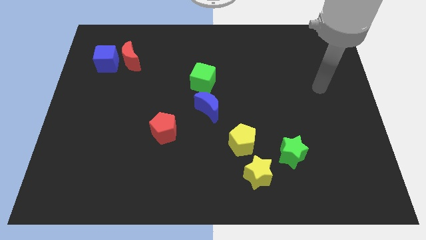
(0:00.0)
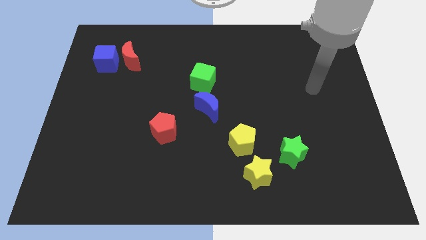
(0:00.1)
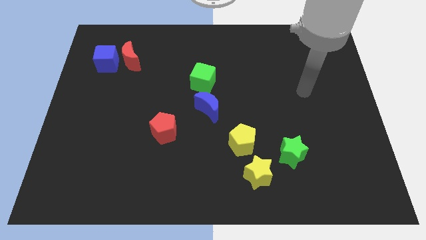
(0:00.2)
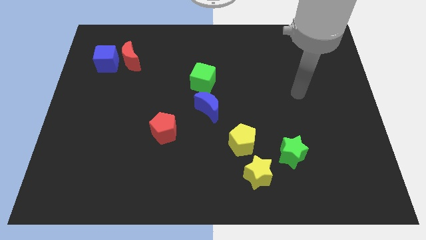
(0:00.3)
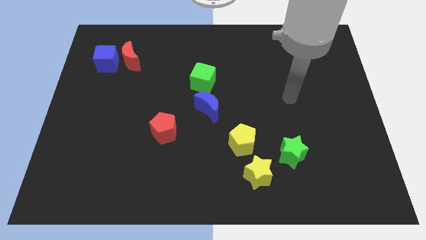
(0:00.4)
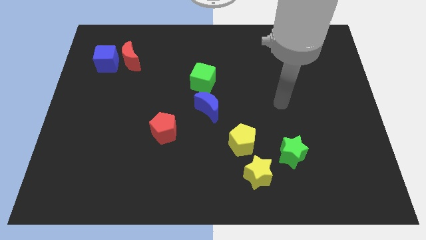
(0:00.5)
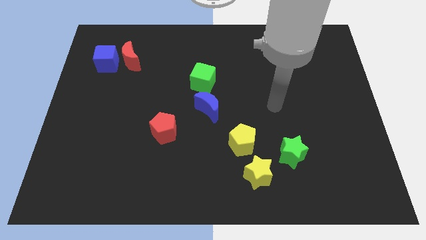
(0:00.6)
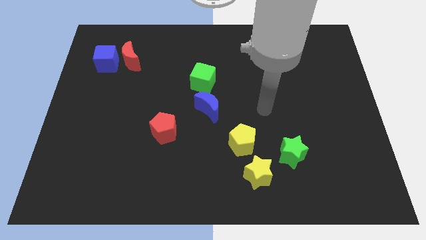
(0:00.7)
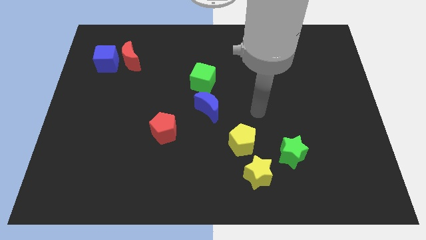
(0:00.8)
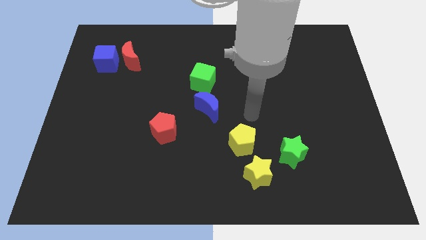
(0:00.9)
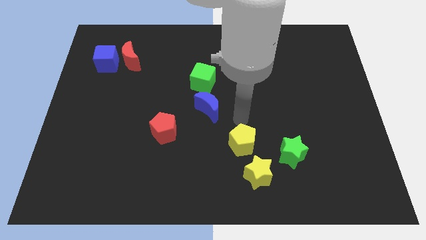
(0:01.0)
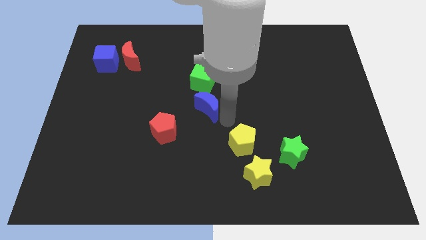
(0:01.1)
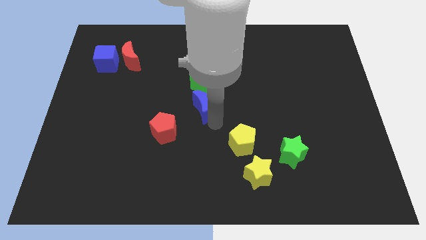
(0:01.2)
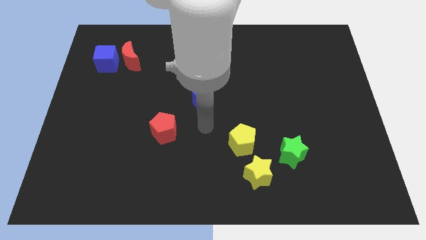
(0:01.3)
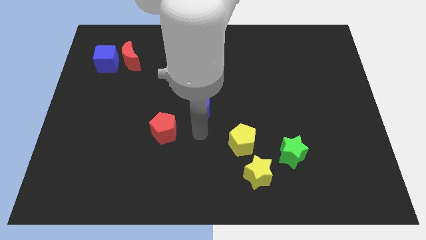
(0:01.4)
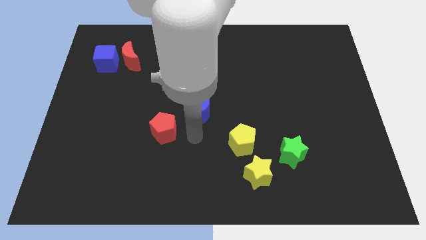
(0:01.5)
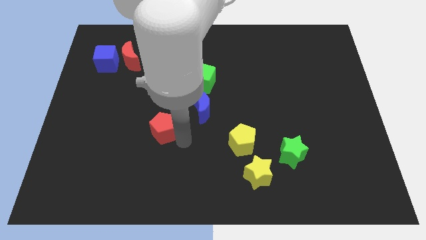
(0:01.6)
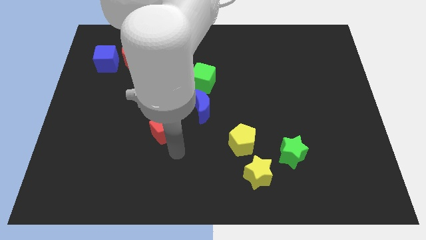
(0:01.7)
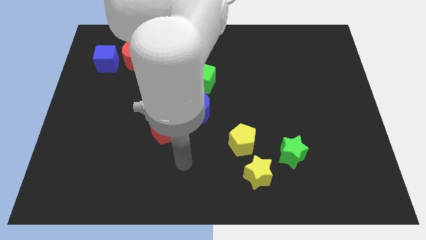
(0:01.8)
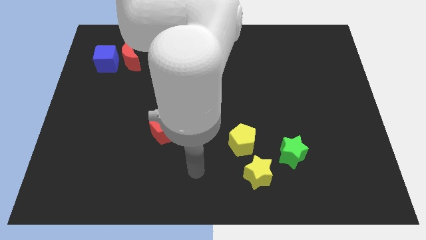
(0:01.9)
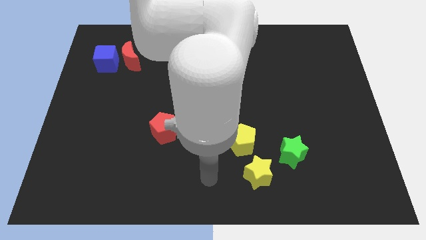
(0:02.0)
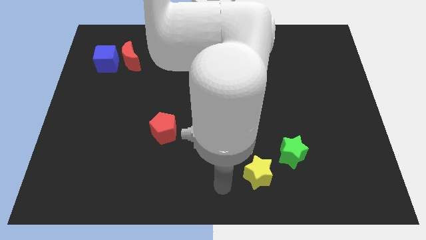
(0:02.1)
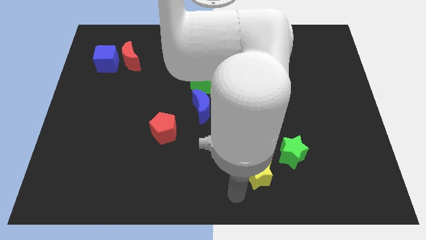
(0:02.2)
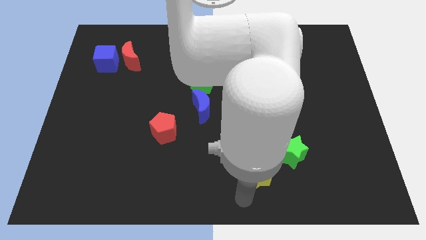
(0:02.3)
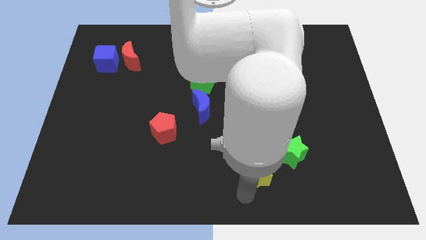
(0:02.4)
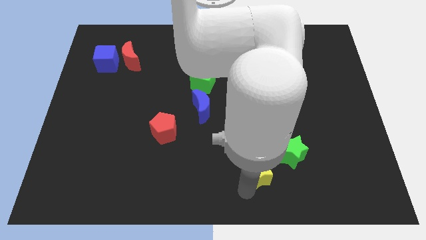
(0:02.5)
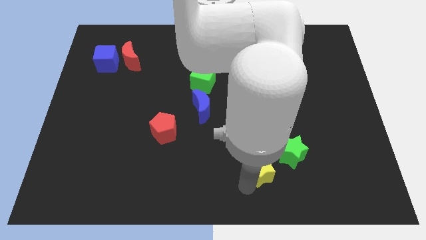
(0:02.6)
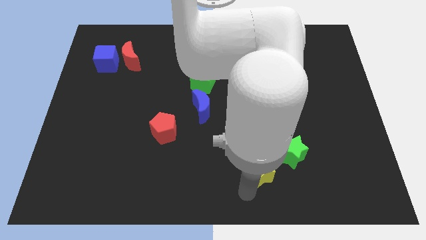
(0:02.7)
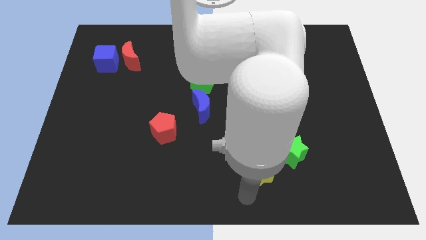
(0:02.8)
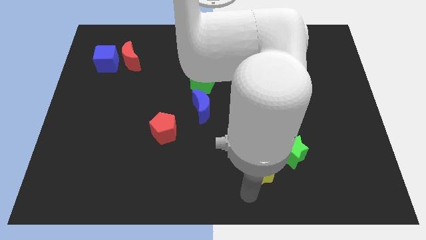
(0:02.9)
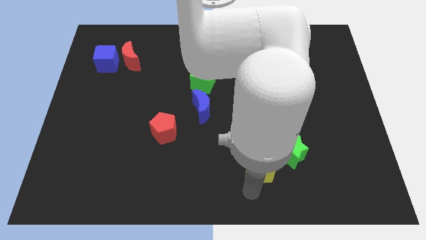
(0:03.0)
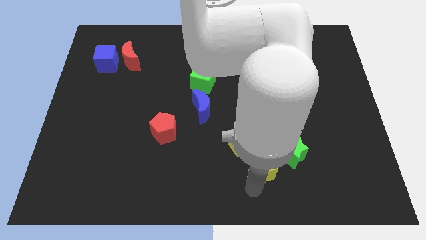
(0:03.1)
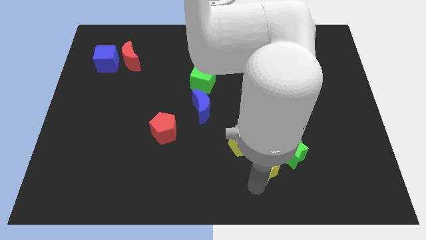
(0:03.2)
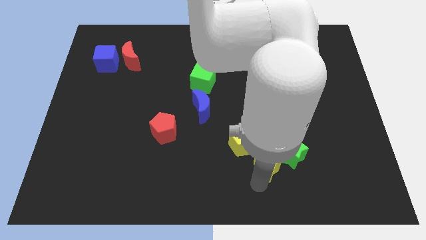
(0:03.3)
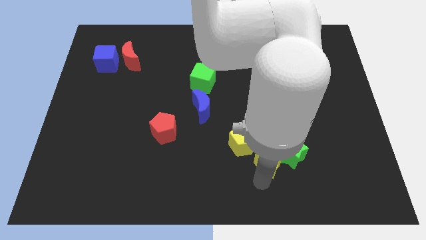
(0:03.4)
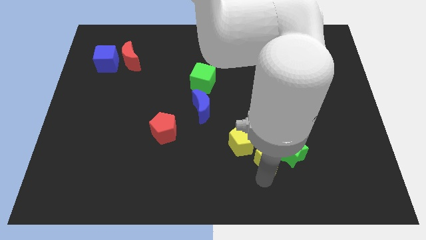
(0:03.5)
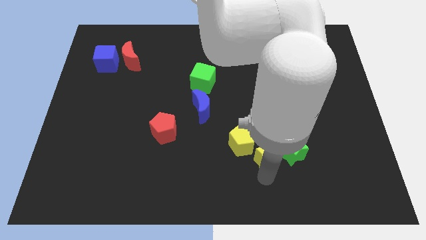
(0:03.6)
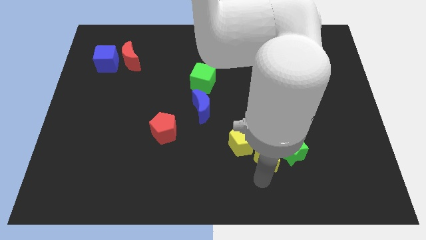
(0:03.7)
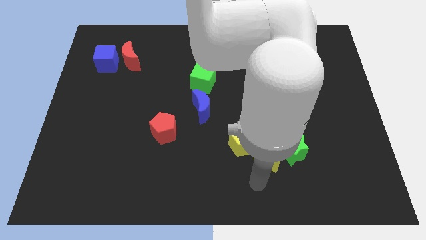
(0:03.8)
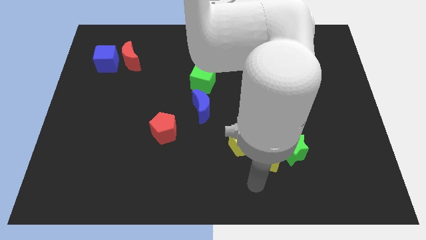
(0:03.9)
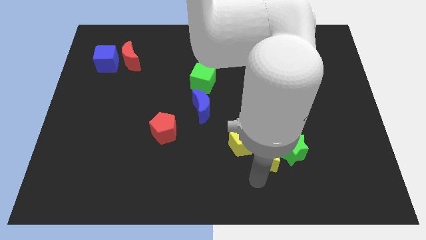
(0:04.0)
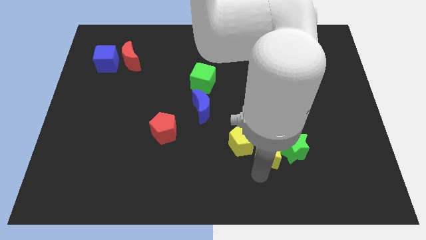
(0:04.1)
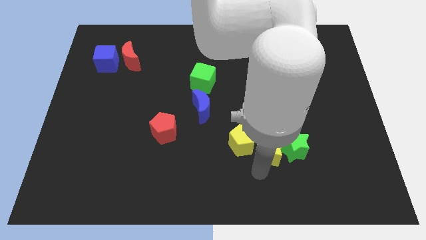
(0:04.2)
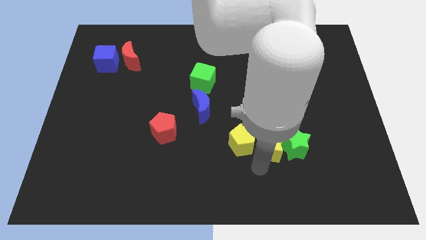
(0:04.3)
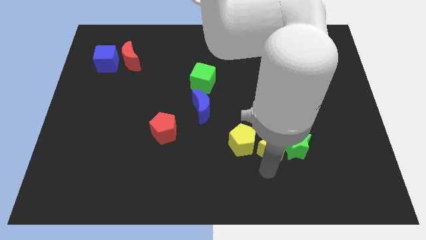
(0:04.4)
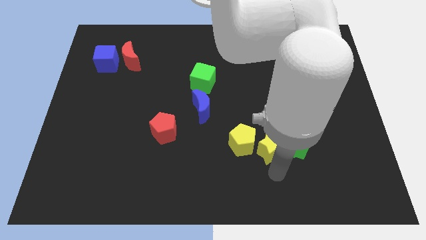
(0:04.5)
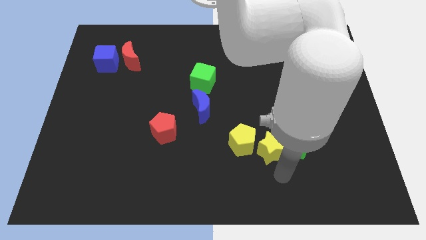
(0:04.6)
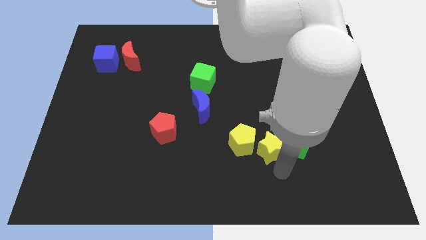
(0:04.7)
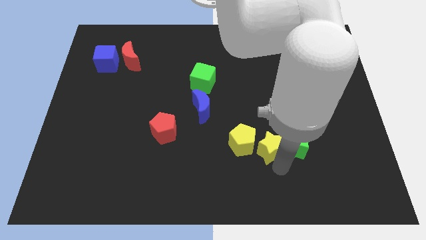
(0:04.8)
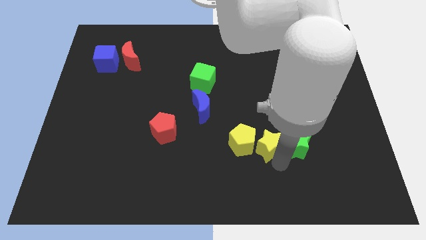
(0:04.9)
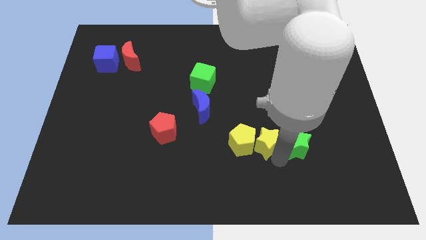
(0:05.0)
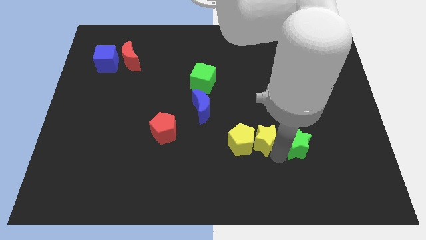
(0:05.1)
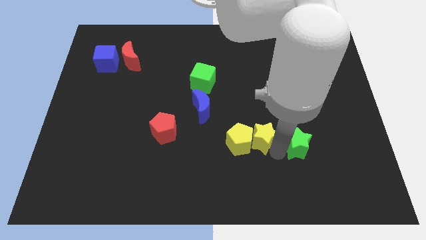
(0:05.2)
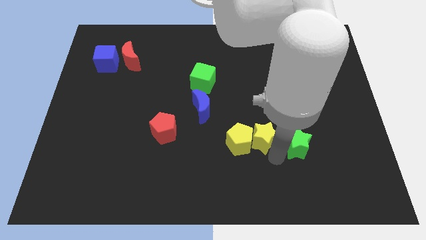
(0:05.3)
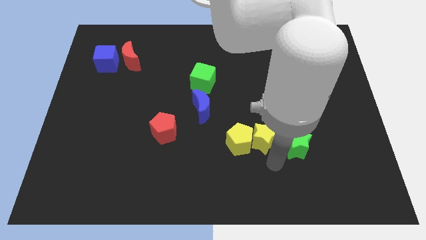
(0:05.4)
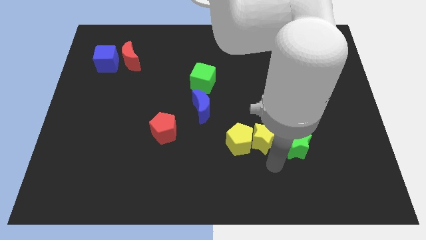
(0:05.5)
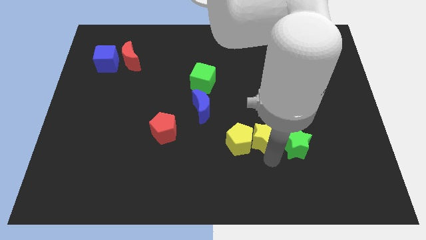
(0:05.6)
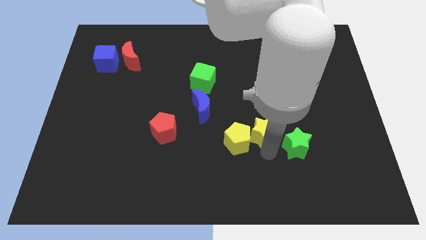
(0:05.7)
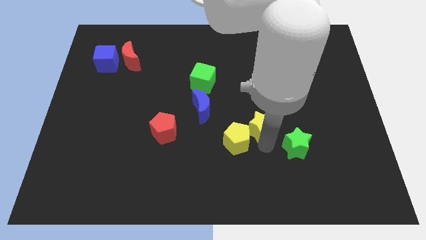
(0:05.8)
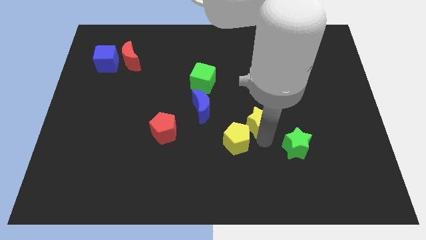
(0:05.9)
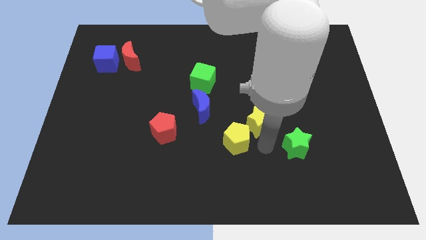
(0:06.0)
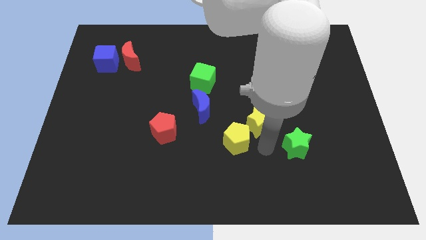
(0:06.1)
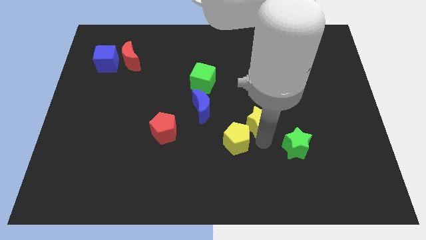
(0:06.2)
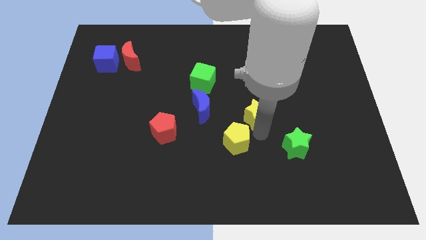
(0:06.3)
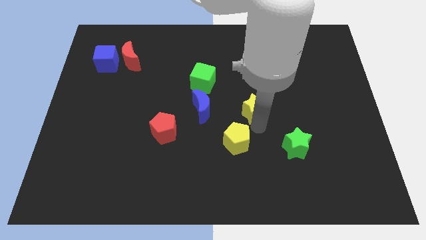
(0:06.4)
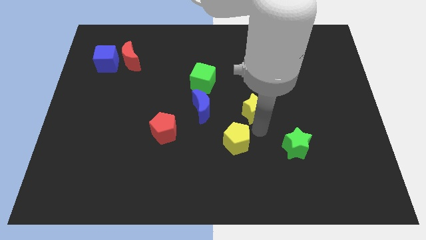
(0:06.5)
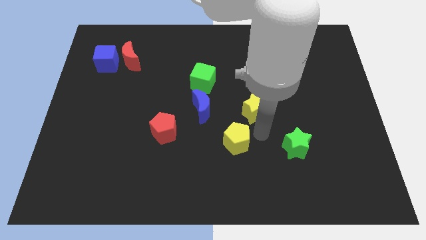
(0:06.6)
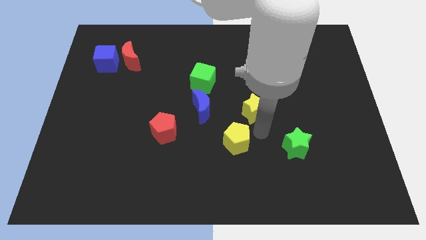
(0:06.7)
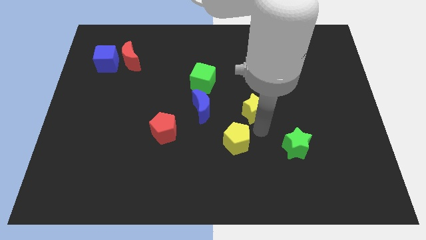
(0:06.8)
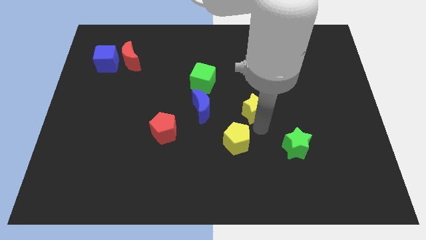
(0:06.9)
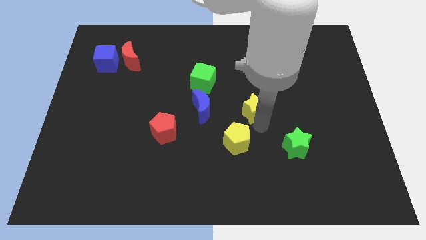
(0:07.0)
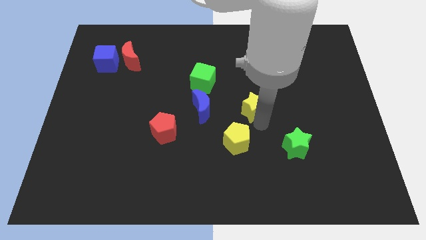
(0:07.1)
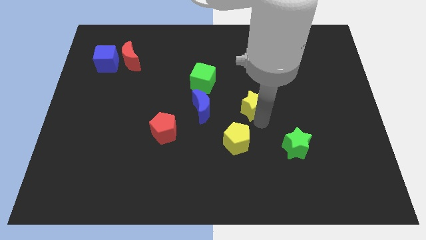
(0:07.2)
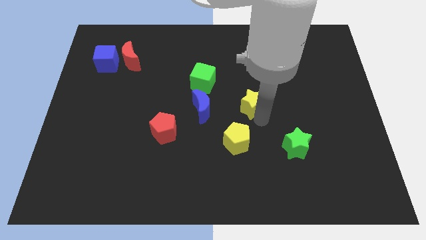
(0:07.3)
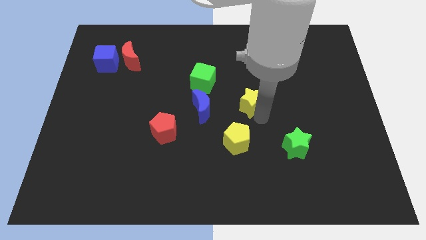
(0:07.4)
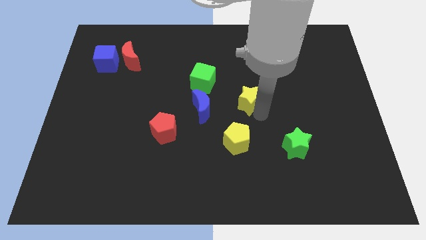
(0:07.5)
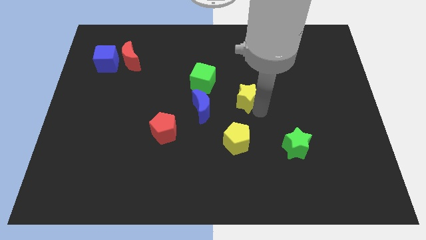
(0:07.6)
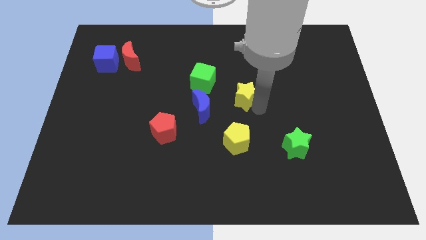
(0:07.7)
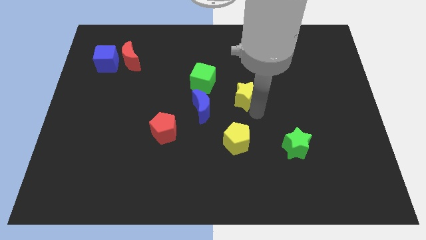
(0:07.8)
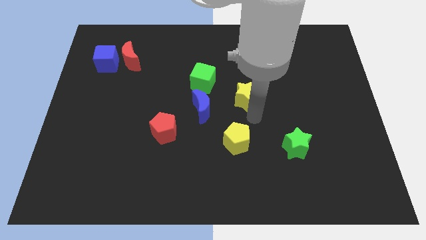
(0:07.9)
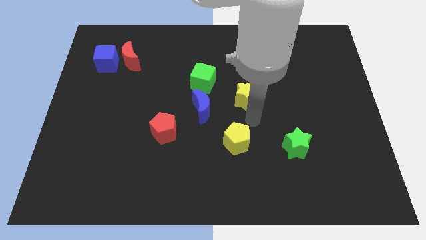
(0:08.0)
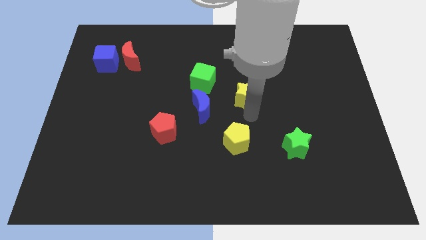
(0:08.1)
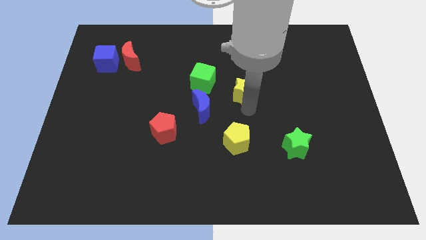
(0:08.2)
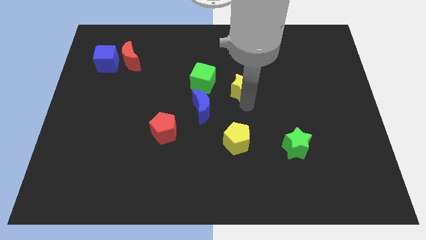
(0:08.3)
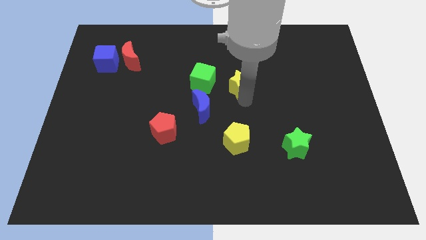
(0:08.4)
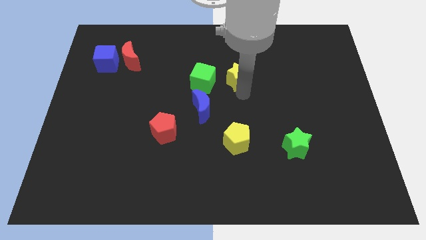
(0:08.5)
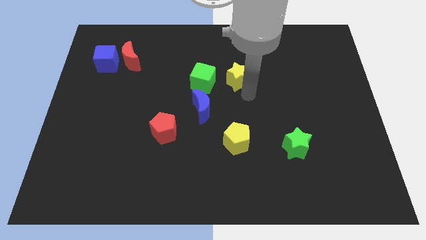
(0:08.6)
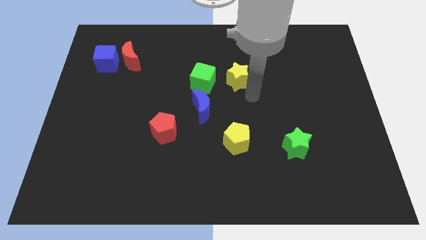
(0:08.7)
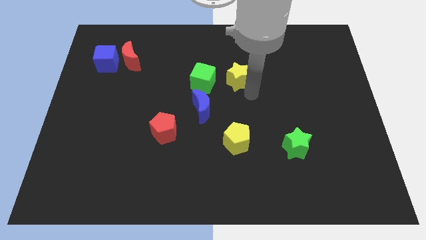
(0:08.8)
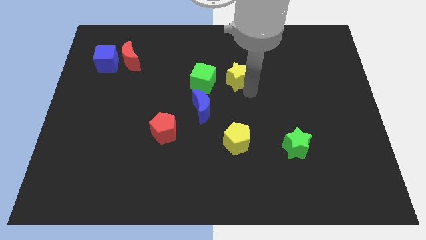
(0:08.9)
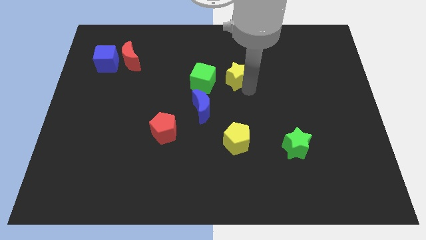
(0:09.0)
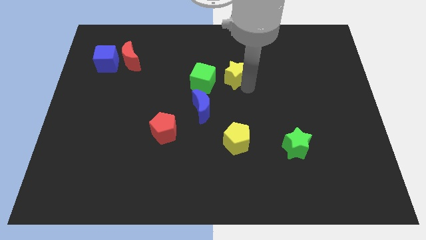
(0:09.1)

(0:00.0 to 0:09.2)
push the yellow star diagonally up and to the right of the green cube
